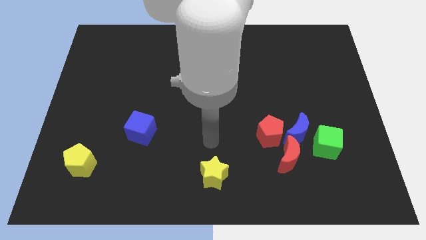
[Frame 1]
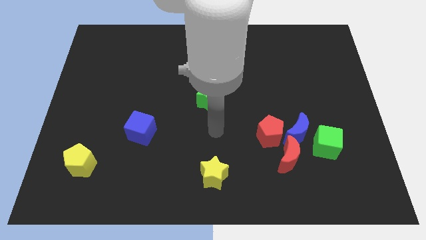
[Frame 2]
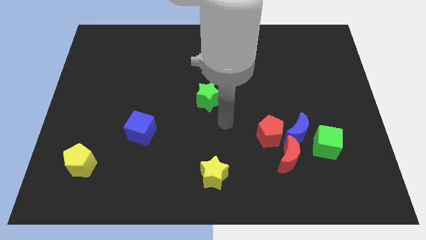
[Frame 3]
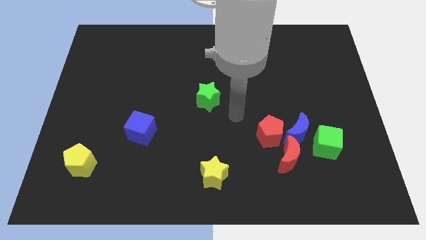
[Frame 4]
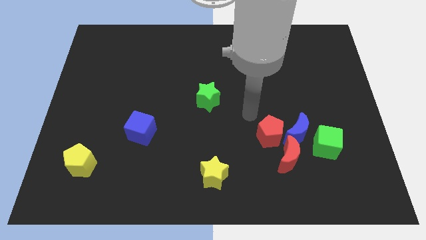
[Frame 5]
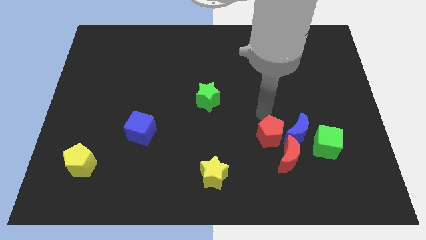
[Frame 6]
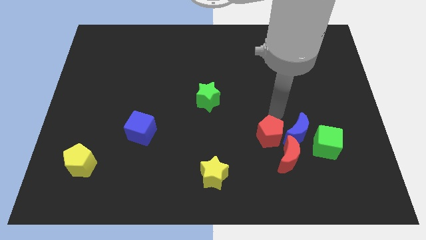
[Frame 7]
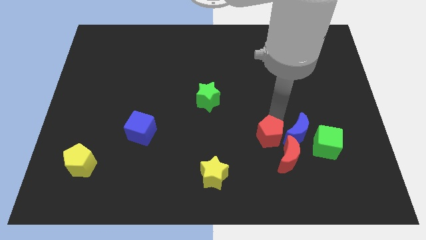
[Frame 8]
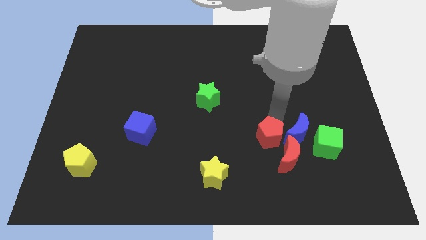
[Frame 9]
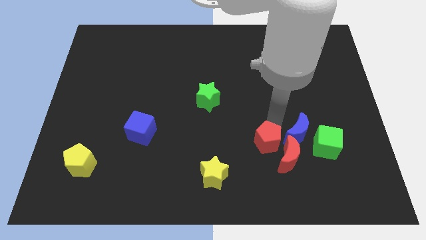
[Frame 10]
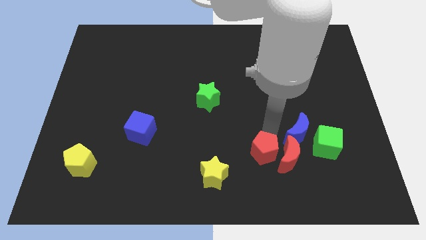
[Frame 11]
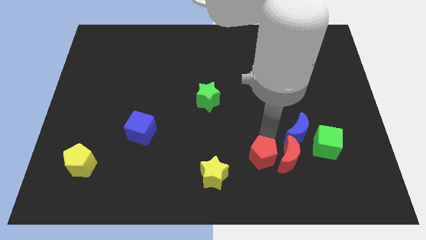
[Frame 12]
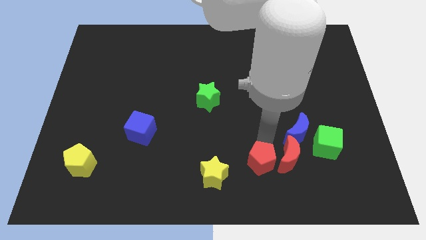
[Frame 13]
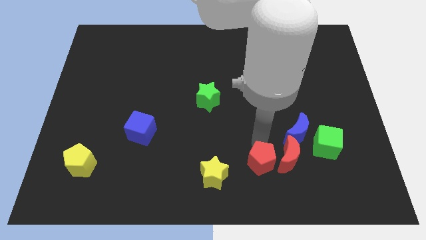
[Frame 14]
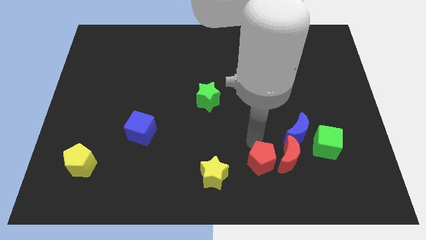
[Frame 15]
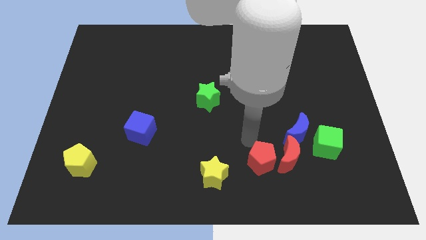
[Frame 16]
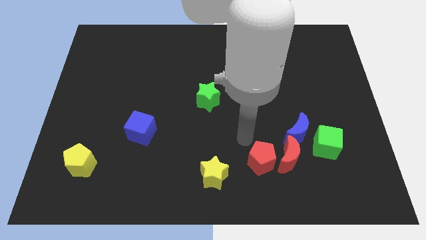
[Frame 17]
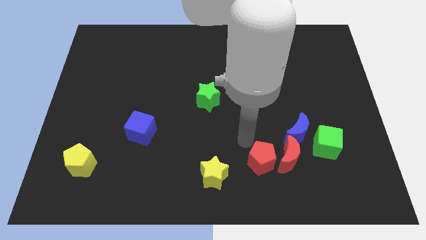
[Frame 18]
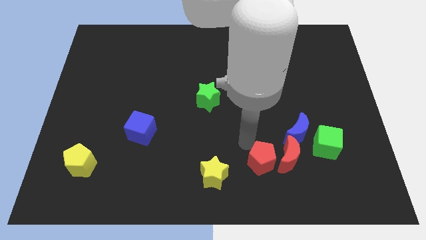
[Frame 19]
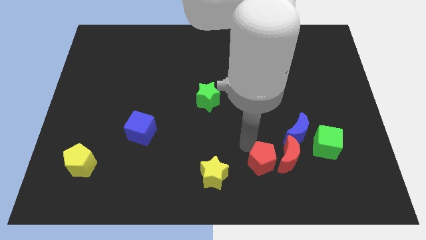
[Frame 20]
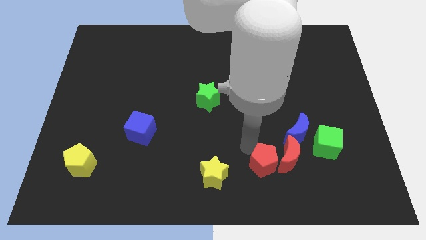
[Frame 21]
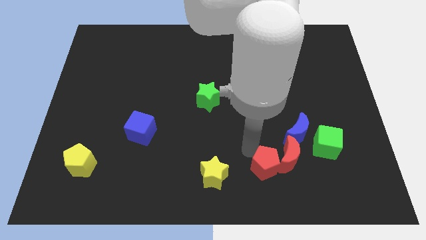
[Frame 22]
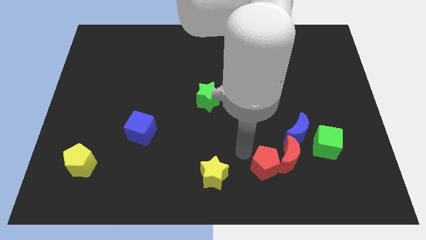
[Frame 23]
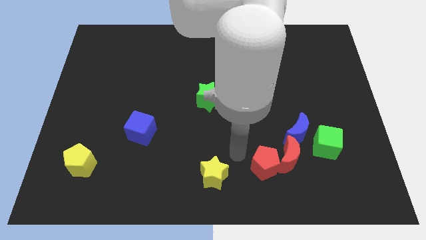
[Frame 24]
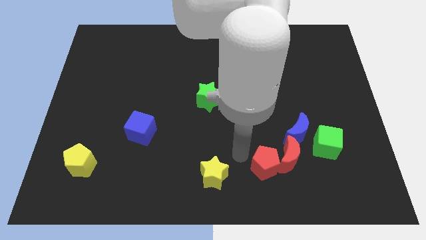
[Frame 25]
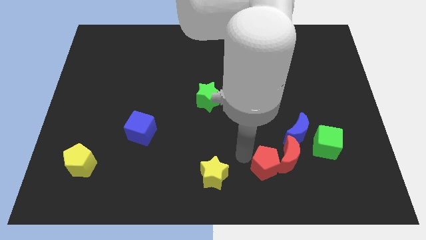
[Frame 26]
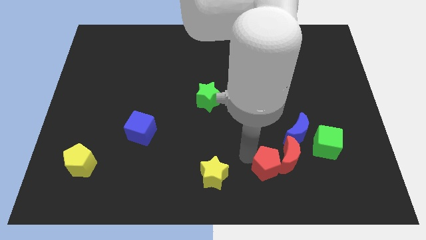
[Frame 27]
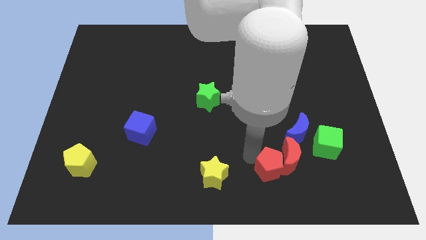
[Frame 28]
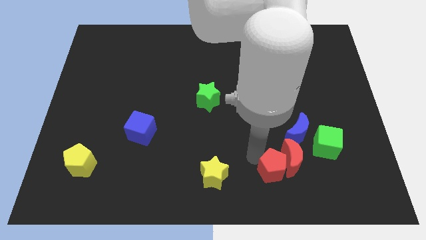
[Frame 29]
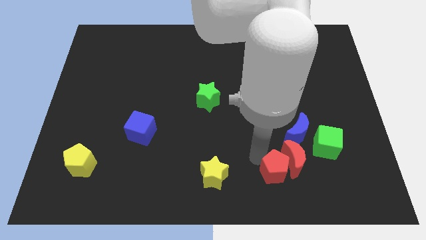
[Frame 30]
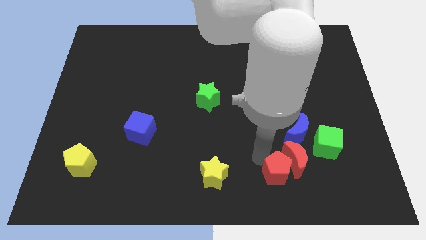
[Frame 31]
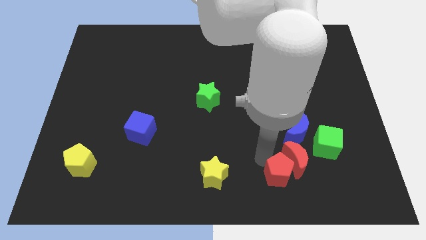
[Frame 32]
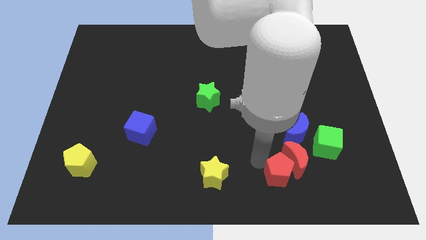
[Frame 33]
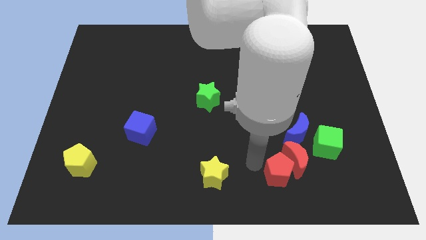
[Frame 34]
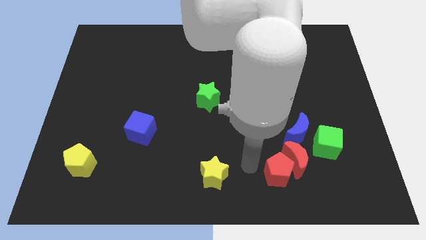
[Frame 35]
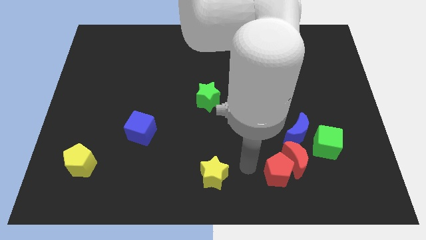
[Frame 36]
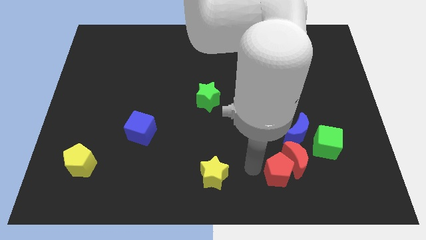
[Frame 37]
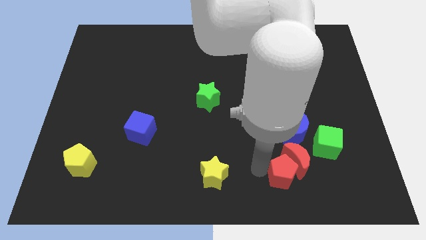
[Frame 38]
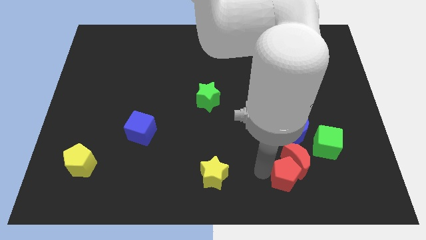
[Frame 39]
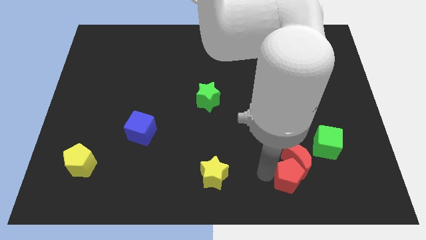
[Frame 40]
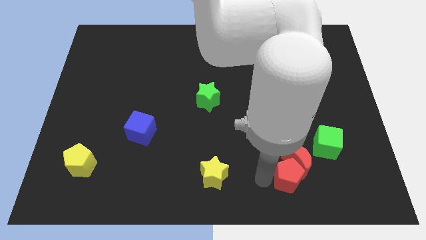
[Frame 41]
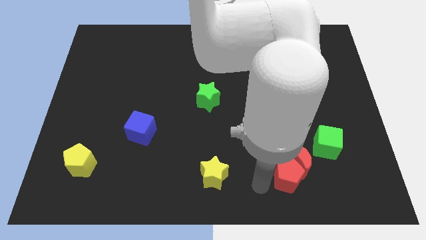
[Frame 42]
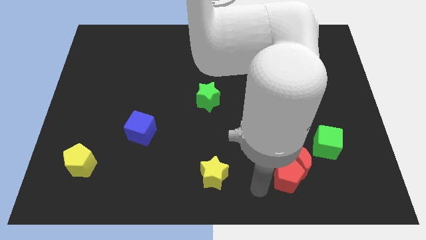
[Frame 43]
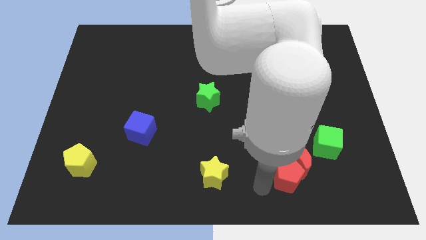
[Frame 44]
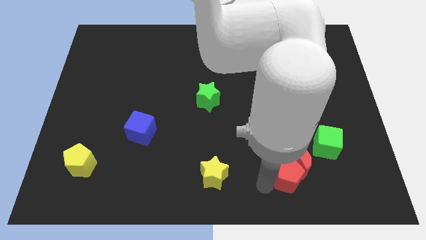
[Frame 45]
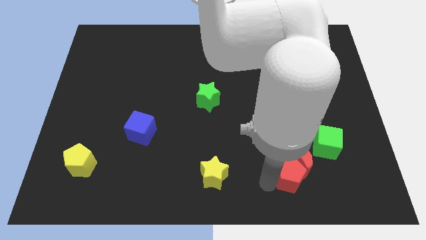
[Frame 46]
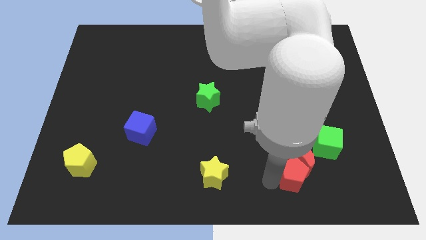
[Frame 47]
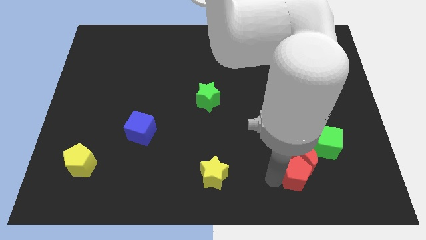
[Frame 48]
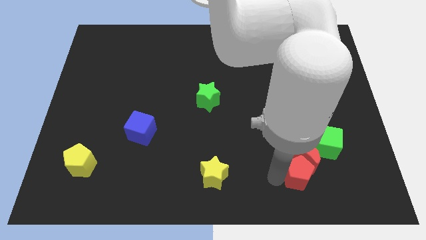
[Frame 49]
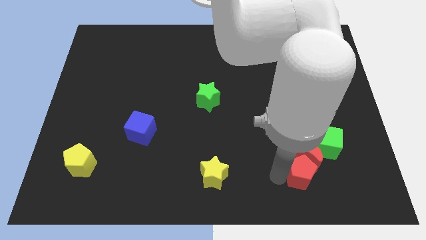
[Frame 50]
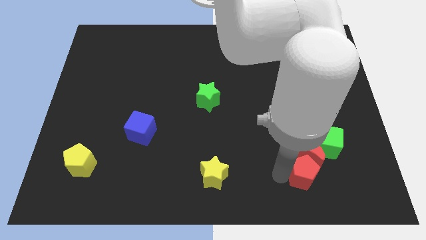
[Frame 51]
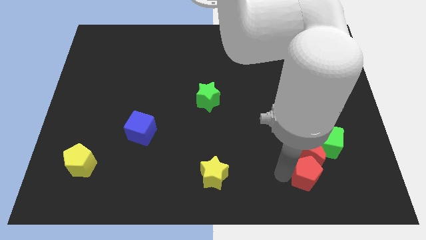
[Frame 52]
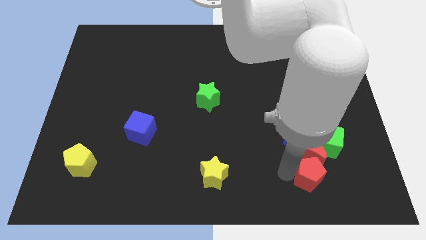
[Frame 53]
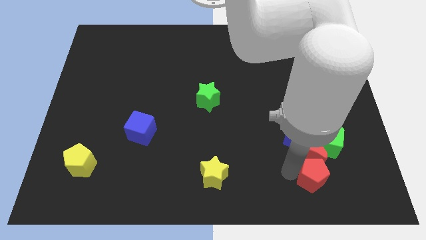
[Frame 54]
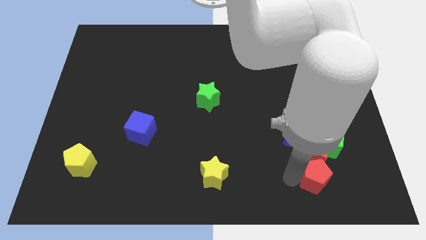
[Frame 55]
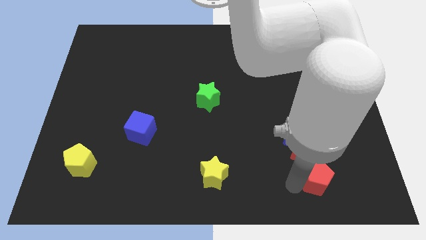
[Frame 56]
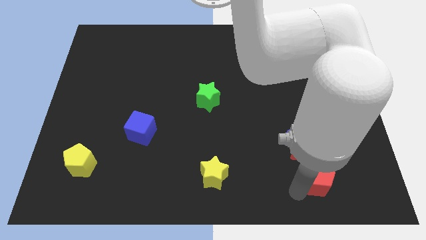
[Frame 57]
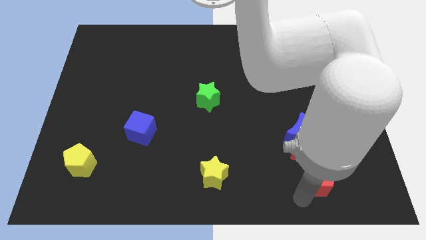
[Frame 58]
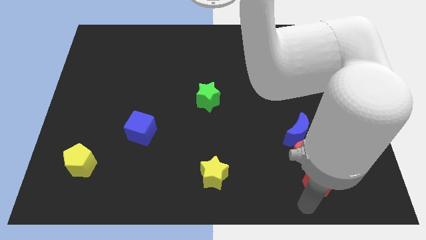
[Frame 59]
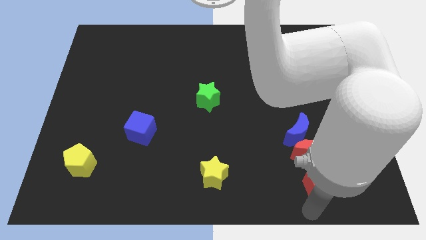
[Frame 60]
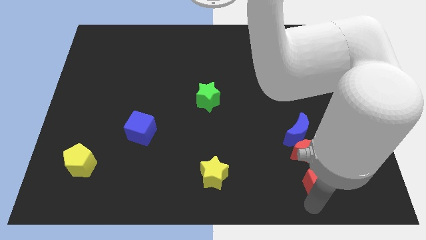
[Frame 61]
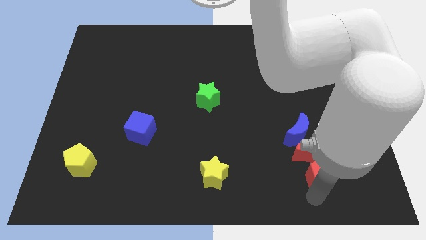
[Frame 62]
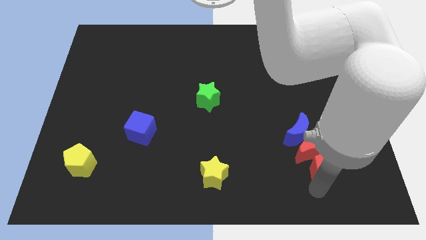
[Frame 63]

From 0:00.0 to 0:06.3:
push the red pentagon to the bottom right side of the blue moon

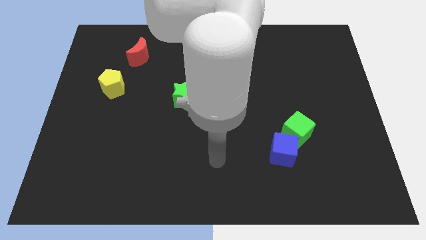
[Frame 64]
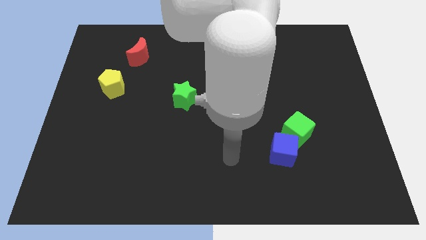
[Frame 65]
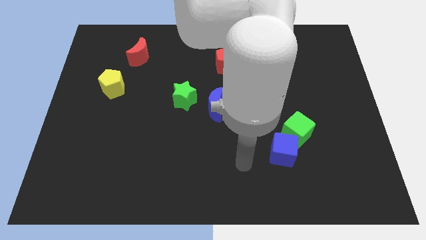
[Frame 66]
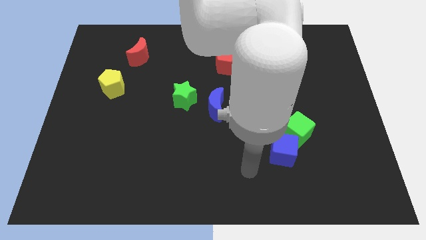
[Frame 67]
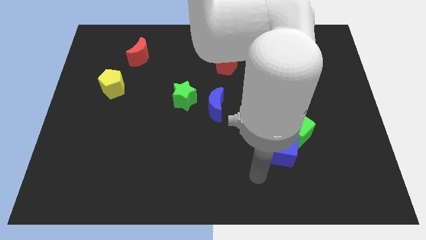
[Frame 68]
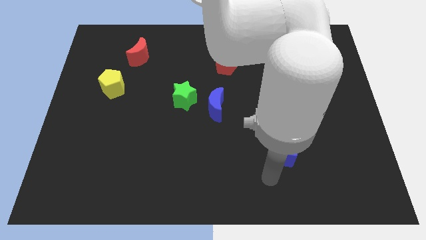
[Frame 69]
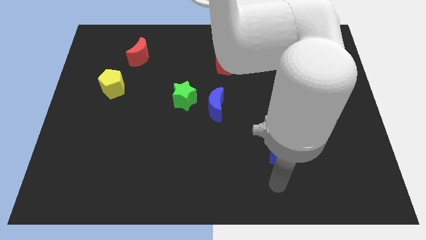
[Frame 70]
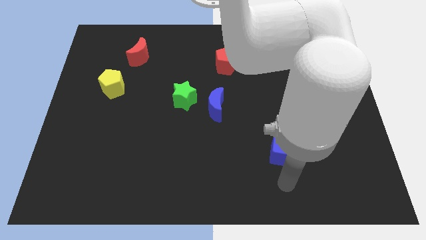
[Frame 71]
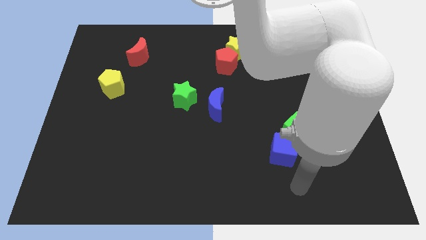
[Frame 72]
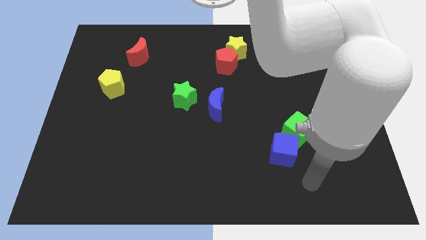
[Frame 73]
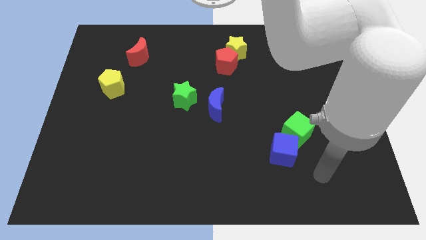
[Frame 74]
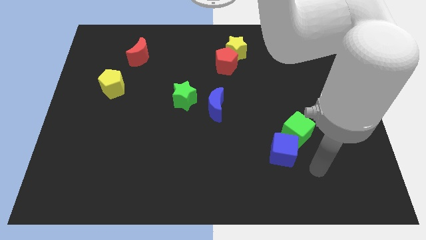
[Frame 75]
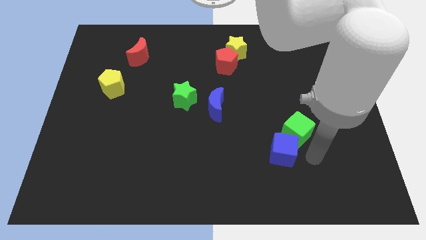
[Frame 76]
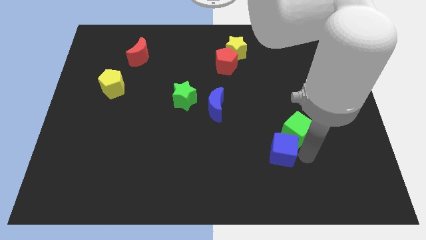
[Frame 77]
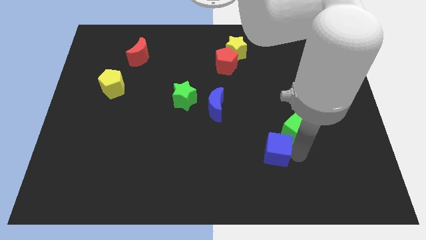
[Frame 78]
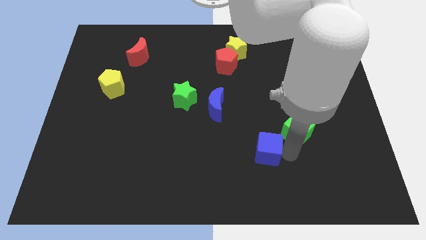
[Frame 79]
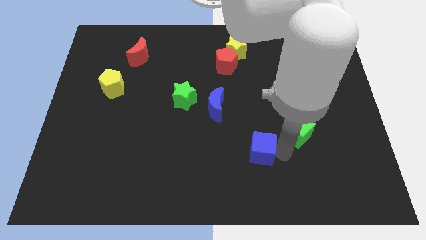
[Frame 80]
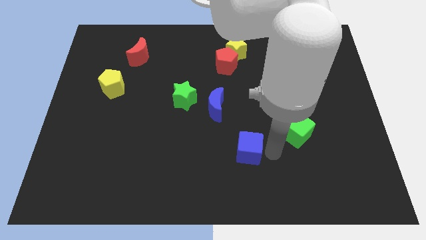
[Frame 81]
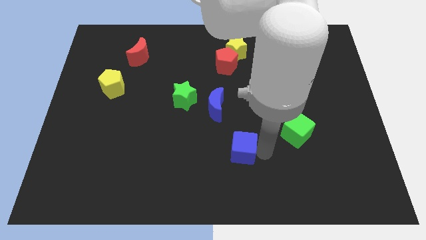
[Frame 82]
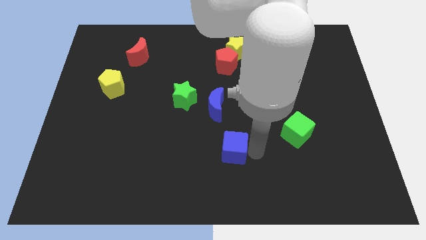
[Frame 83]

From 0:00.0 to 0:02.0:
slide the blue cube below the blue moon
